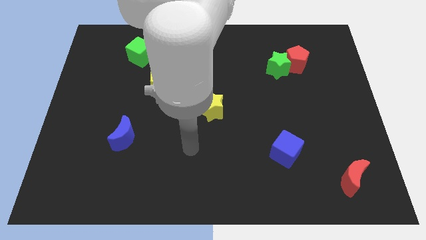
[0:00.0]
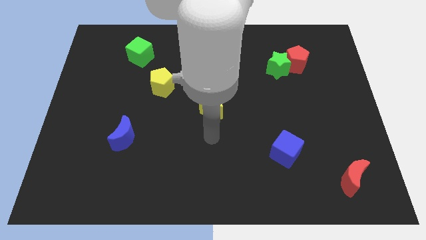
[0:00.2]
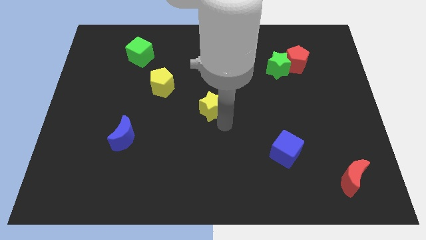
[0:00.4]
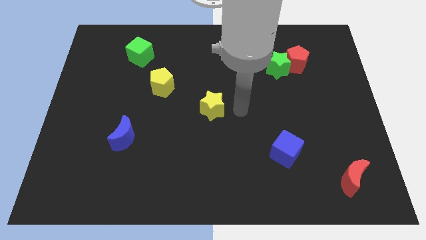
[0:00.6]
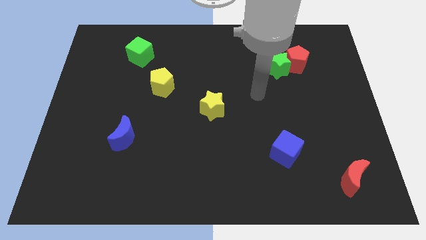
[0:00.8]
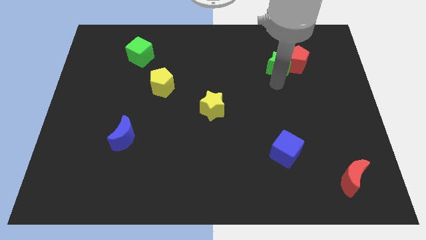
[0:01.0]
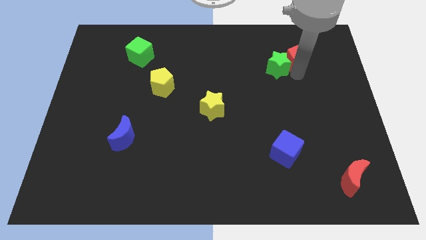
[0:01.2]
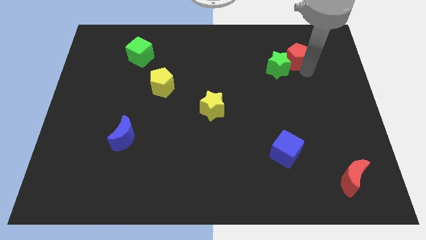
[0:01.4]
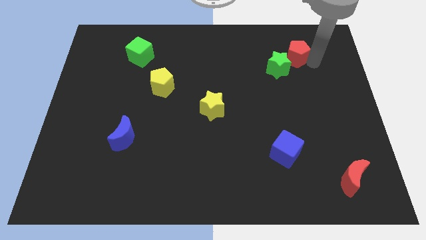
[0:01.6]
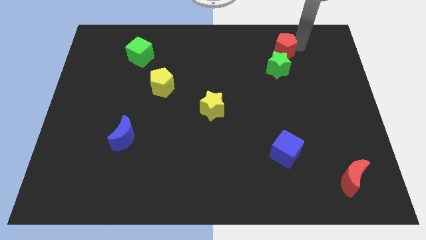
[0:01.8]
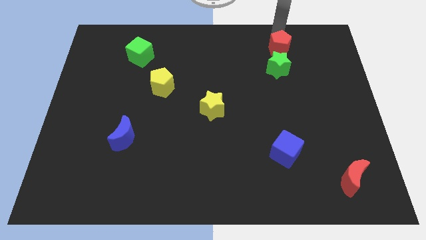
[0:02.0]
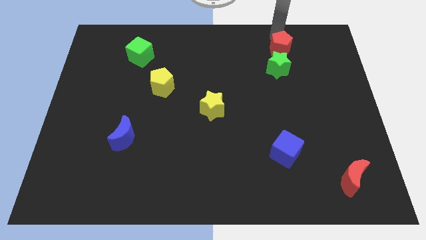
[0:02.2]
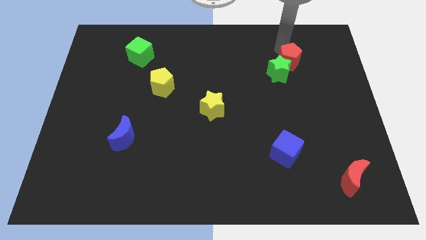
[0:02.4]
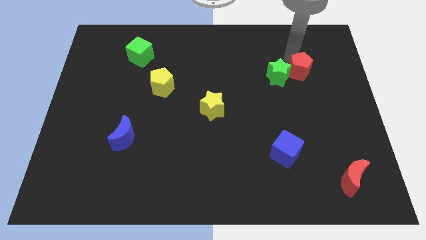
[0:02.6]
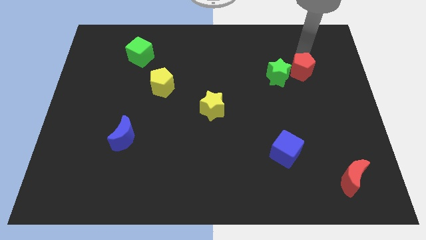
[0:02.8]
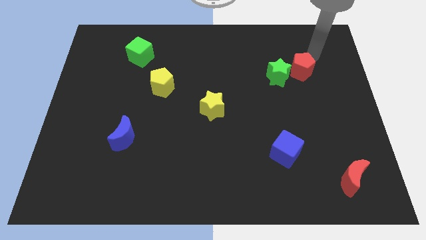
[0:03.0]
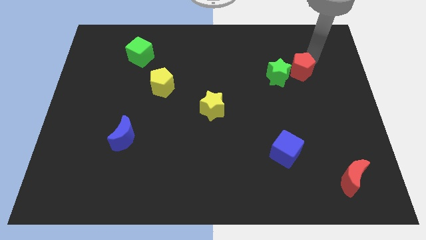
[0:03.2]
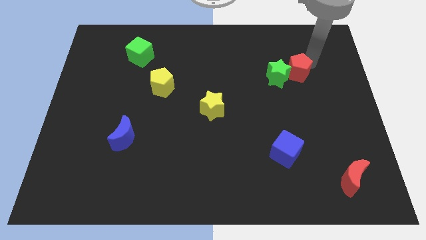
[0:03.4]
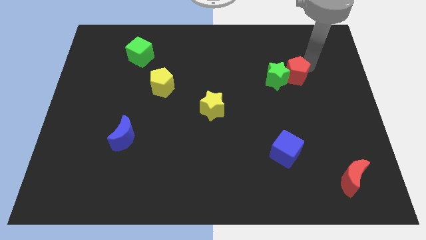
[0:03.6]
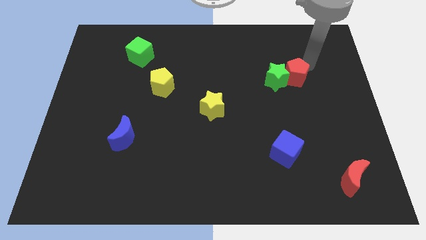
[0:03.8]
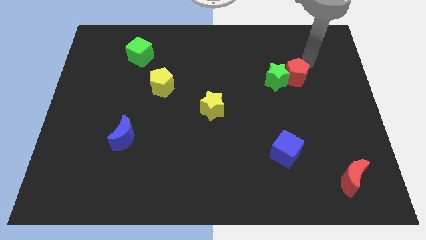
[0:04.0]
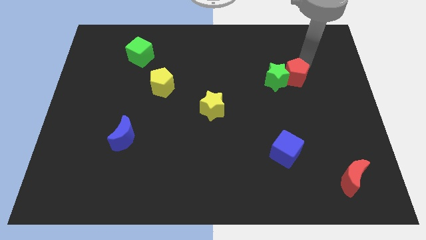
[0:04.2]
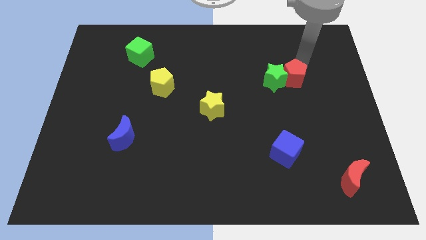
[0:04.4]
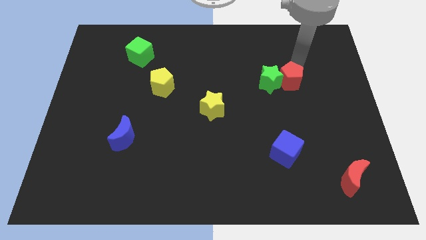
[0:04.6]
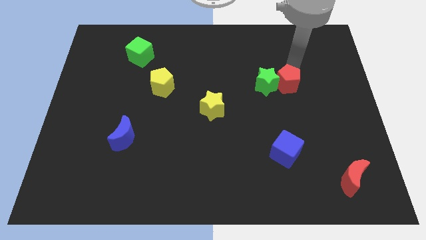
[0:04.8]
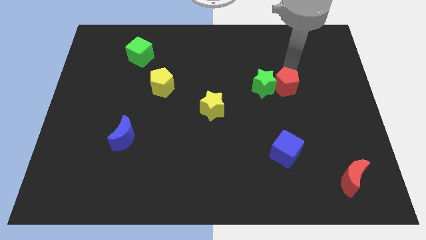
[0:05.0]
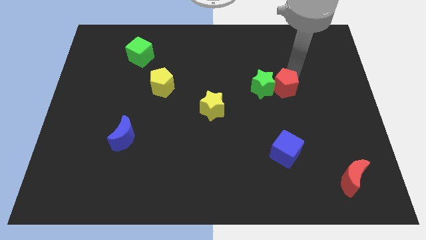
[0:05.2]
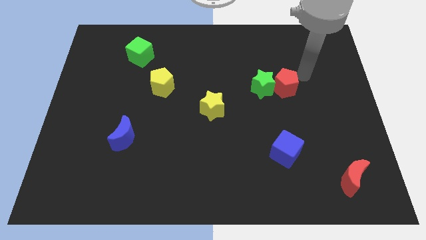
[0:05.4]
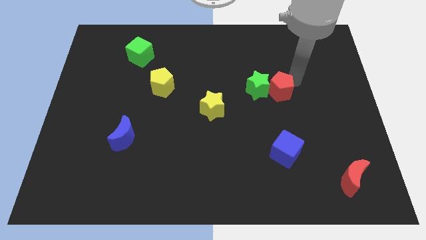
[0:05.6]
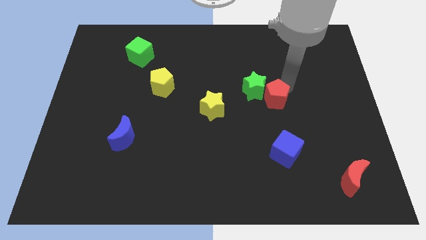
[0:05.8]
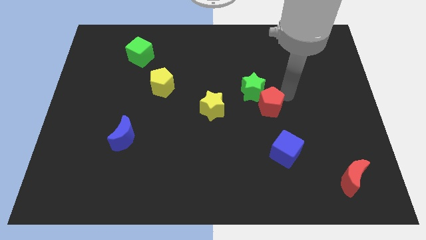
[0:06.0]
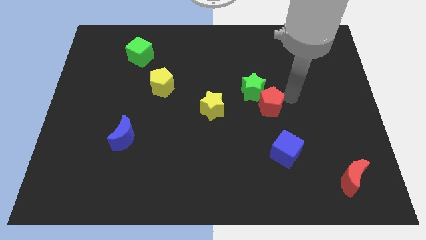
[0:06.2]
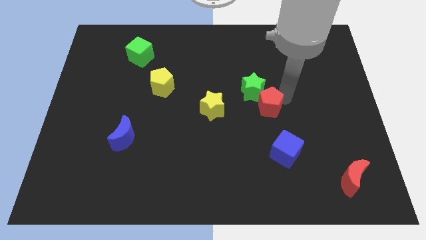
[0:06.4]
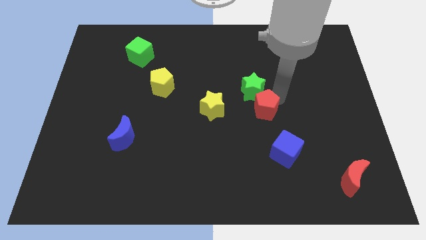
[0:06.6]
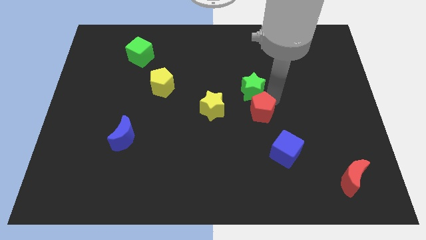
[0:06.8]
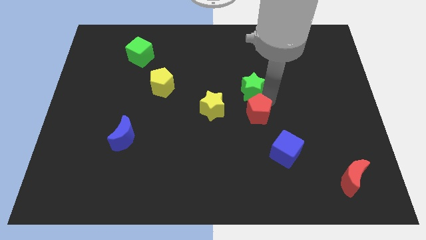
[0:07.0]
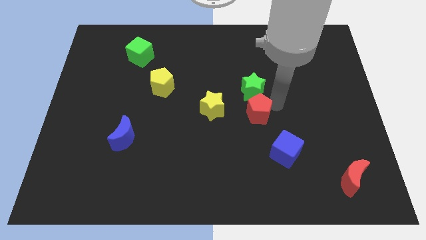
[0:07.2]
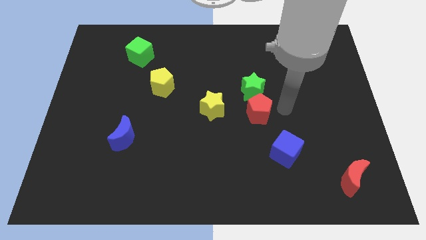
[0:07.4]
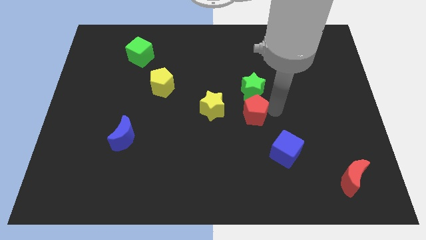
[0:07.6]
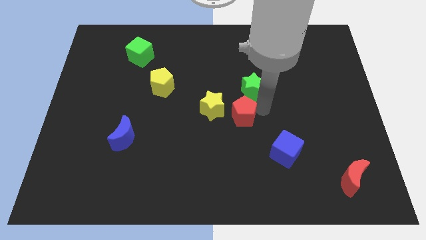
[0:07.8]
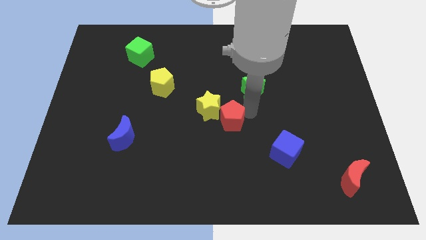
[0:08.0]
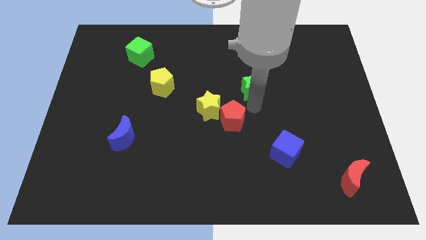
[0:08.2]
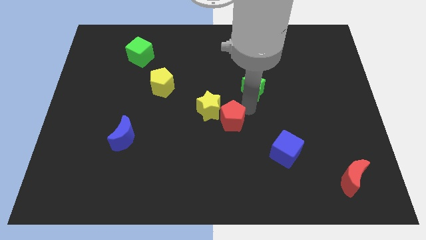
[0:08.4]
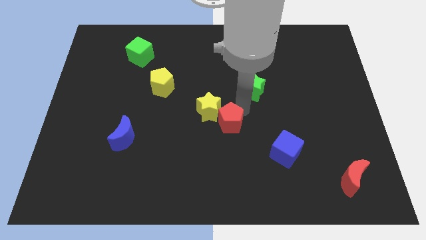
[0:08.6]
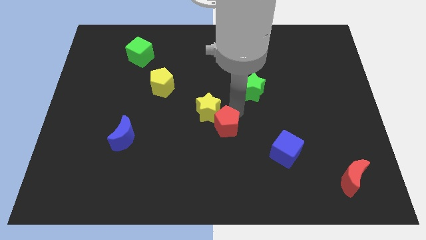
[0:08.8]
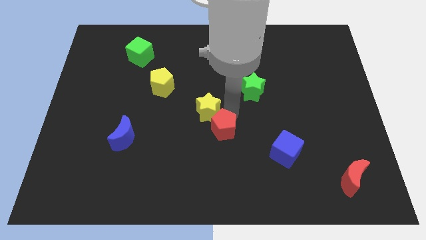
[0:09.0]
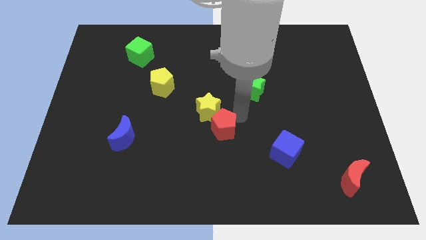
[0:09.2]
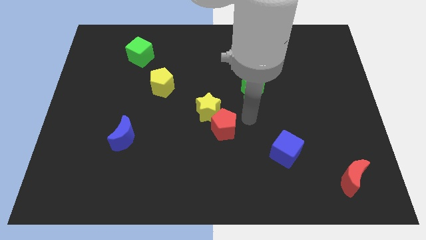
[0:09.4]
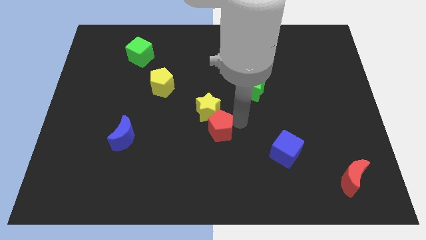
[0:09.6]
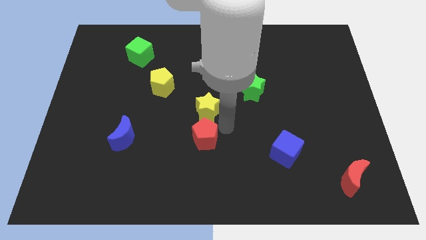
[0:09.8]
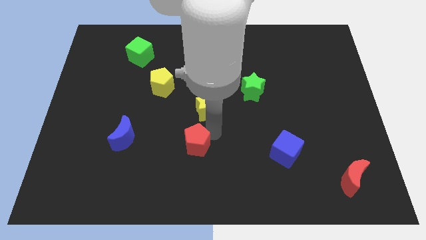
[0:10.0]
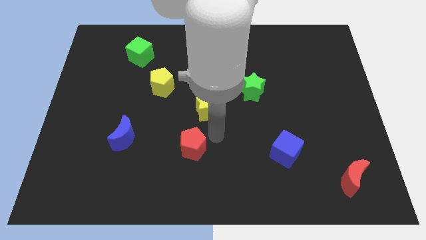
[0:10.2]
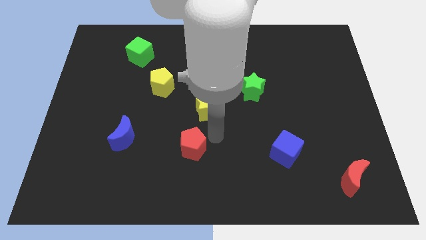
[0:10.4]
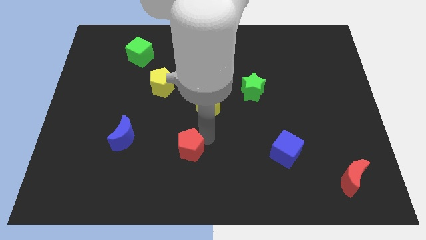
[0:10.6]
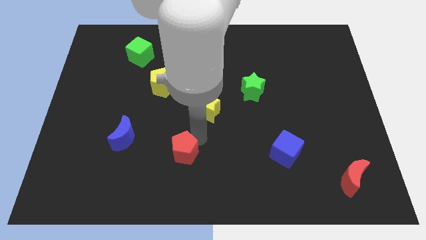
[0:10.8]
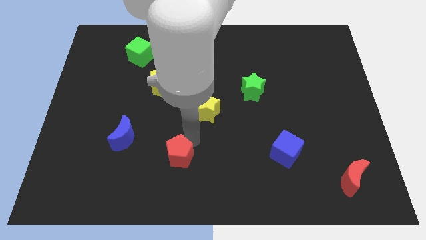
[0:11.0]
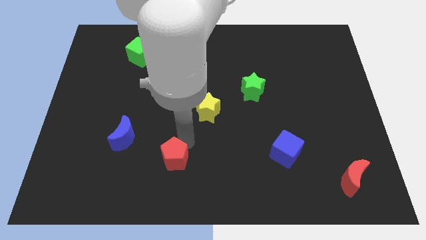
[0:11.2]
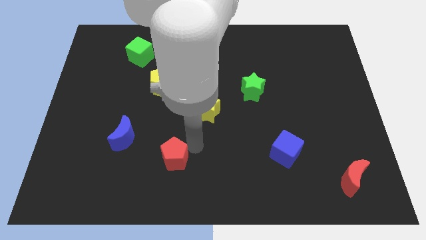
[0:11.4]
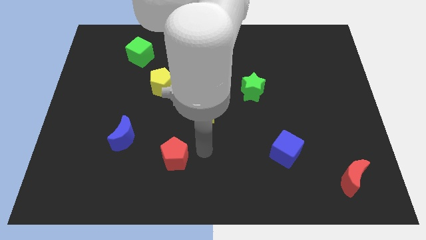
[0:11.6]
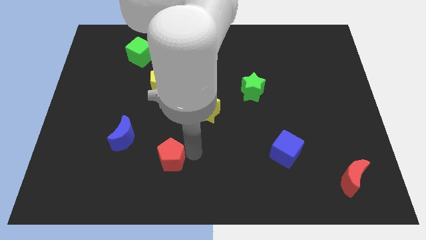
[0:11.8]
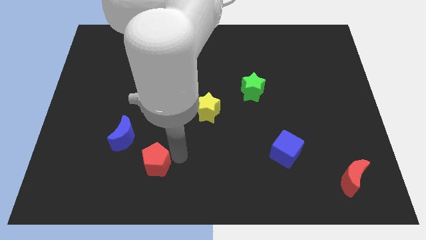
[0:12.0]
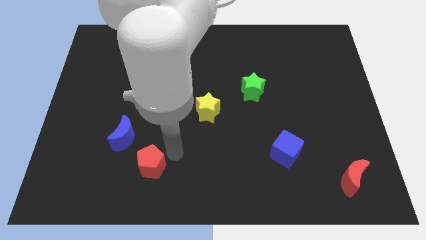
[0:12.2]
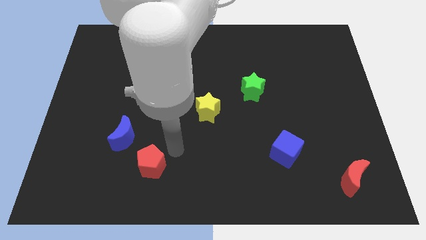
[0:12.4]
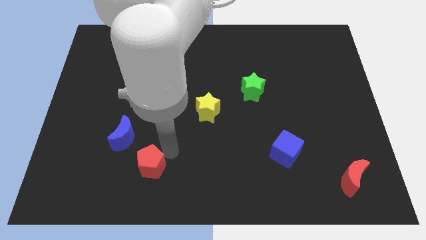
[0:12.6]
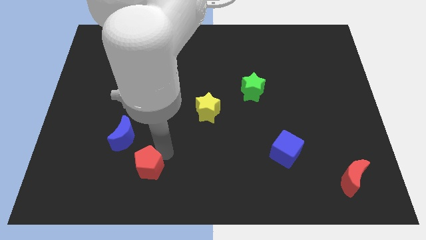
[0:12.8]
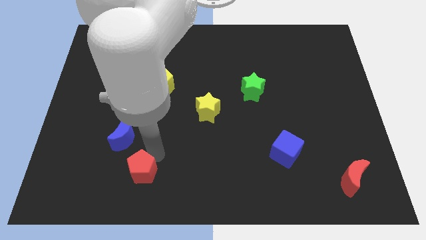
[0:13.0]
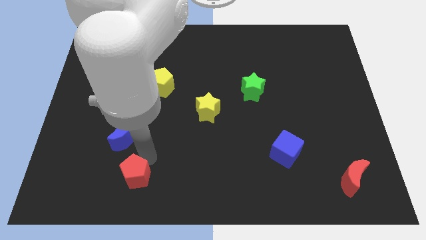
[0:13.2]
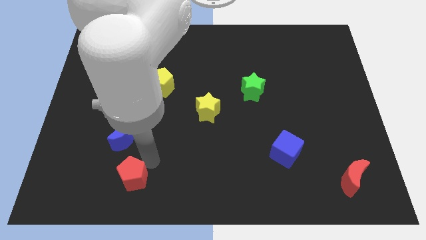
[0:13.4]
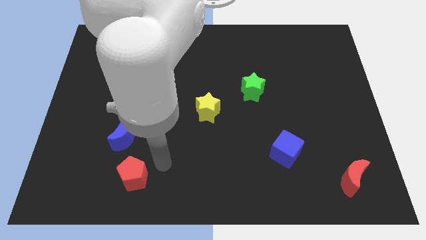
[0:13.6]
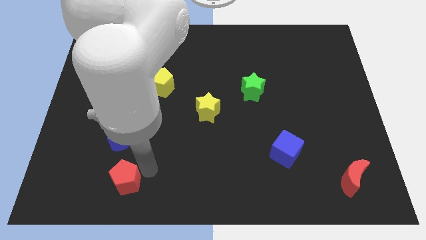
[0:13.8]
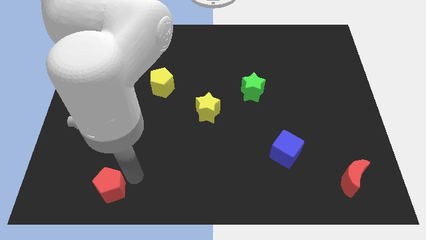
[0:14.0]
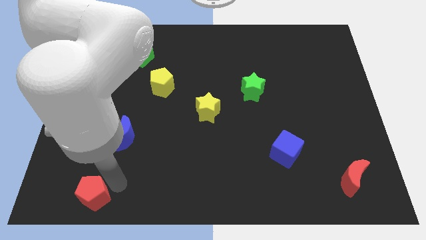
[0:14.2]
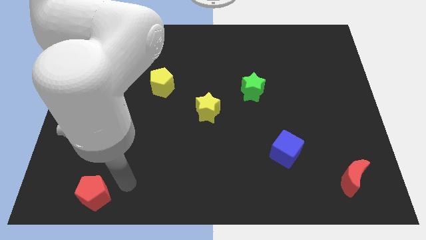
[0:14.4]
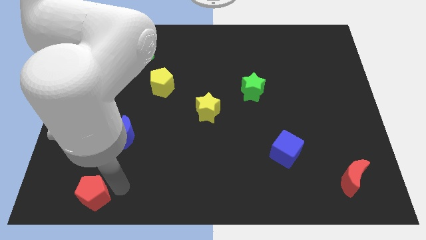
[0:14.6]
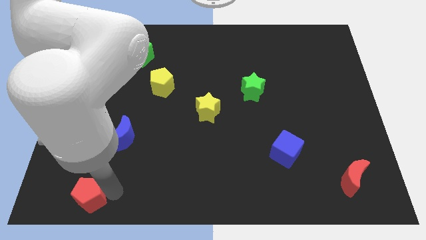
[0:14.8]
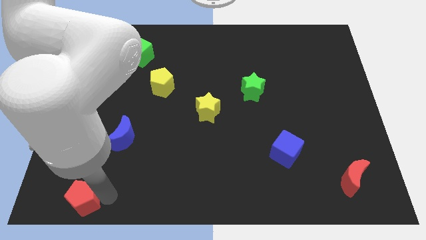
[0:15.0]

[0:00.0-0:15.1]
move the red pentagon to the bottom left corner
